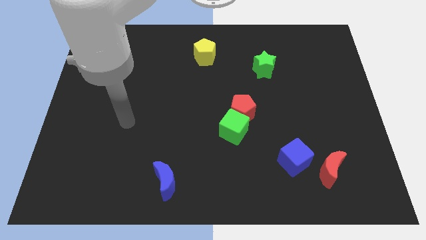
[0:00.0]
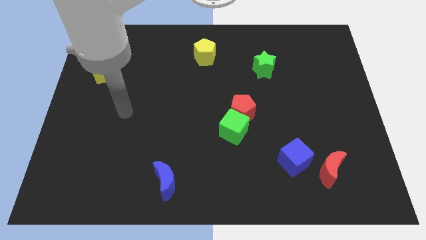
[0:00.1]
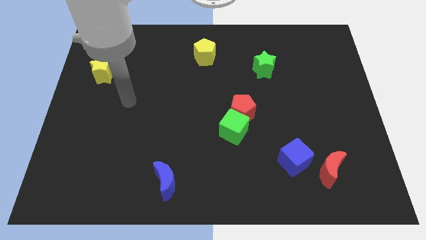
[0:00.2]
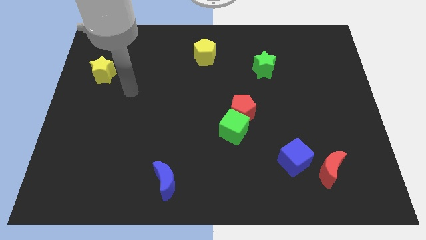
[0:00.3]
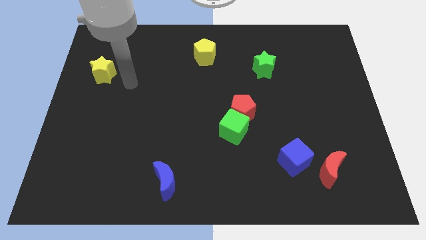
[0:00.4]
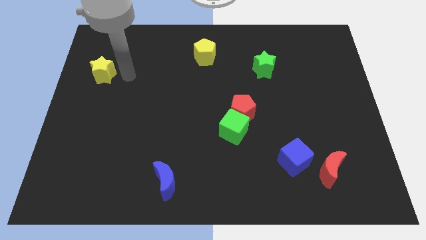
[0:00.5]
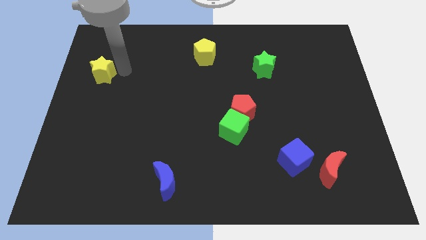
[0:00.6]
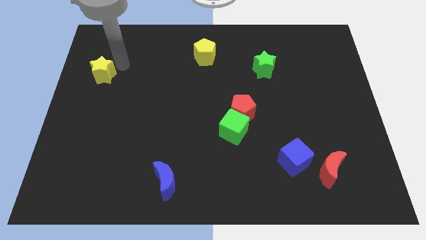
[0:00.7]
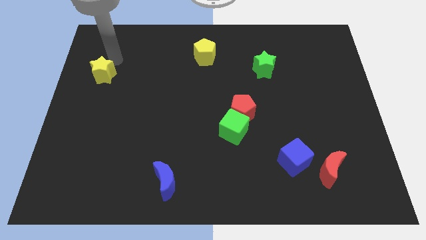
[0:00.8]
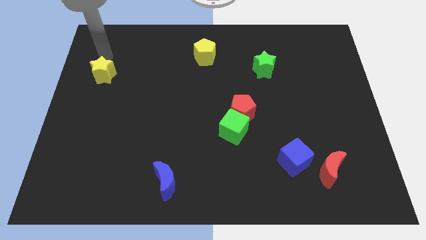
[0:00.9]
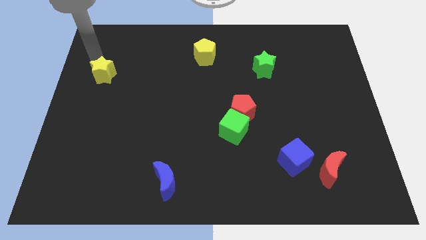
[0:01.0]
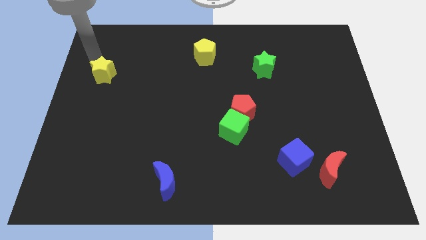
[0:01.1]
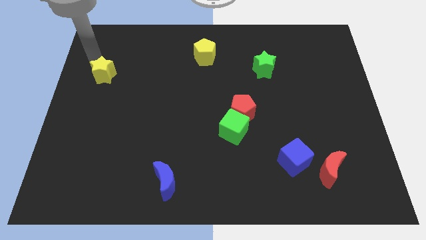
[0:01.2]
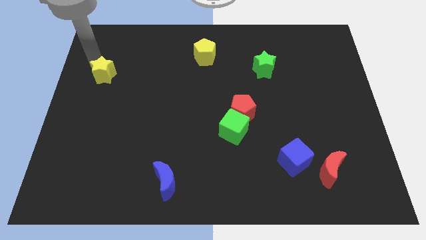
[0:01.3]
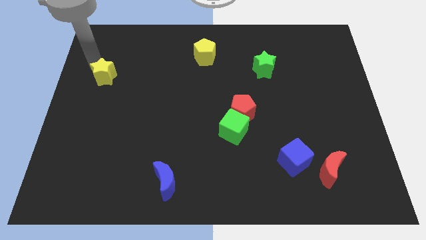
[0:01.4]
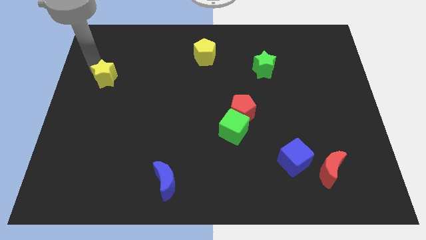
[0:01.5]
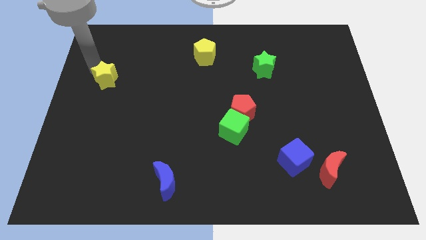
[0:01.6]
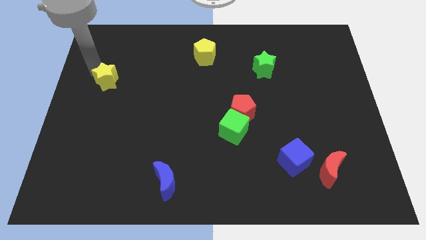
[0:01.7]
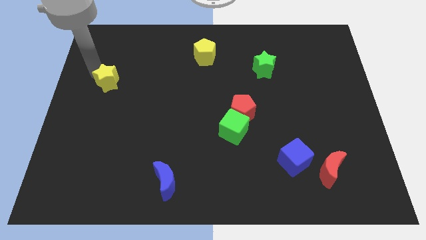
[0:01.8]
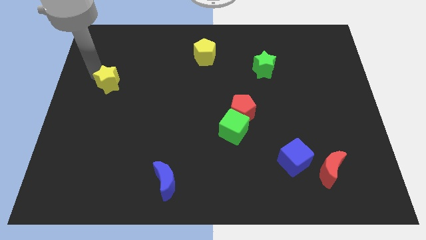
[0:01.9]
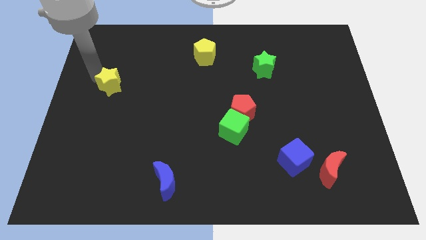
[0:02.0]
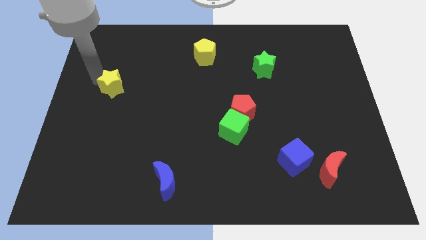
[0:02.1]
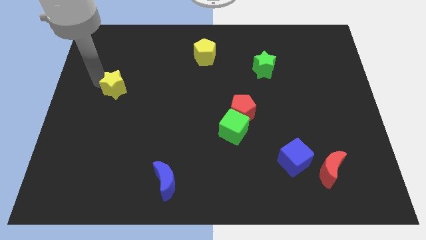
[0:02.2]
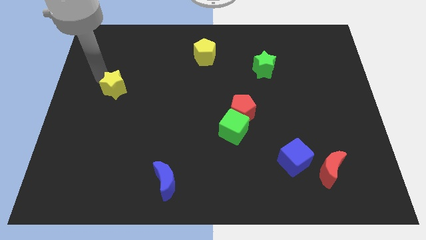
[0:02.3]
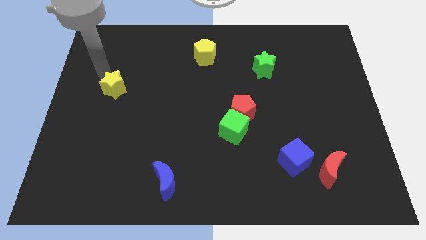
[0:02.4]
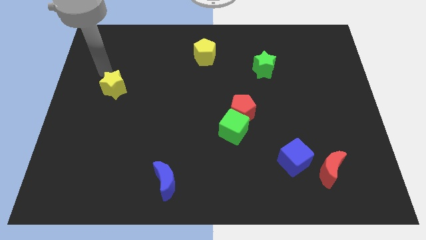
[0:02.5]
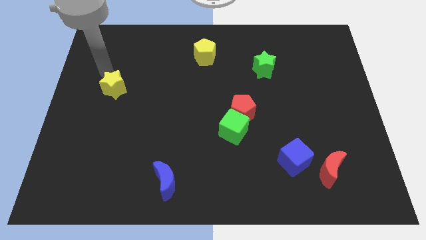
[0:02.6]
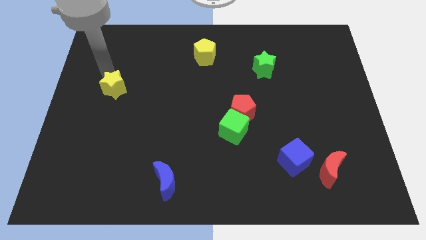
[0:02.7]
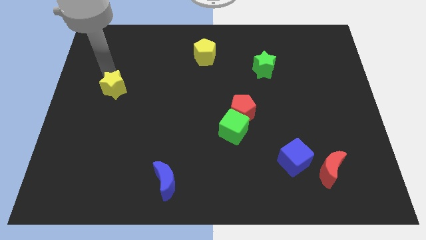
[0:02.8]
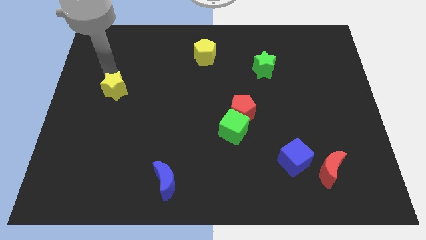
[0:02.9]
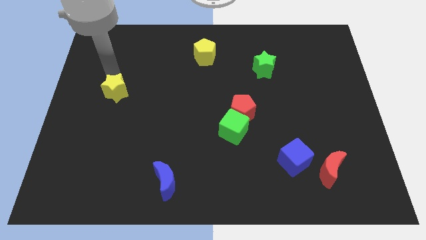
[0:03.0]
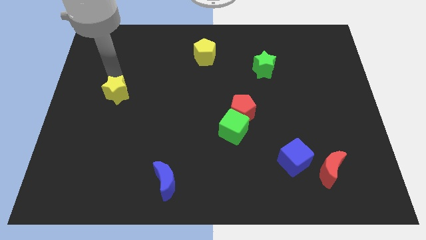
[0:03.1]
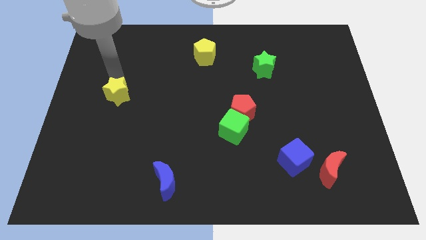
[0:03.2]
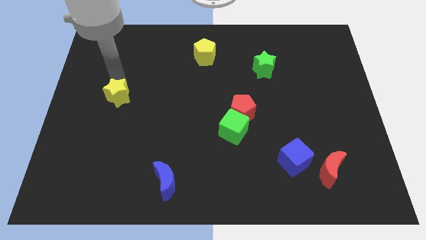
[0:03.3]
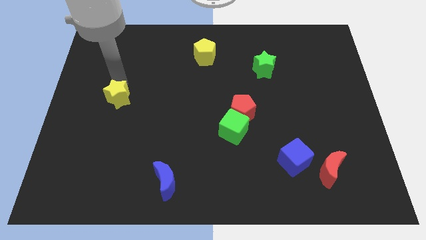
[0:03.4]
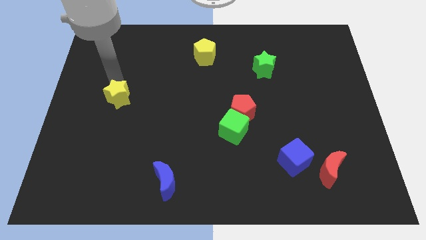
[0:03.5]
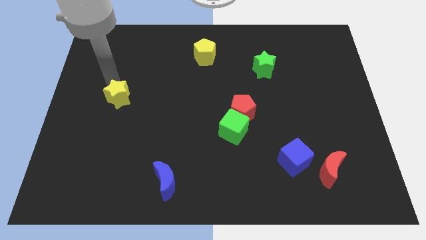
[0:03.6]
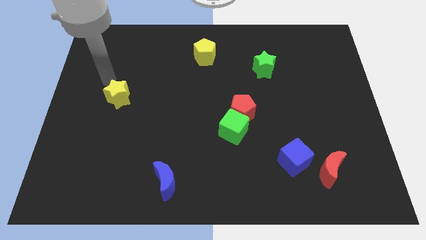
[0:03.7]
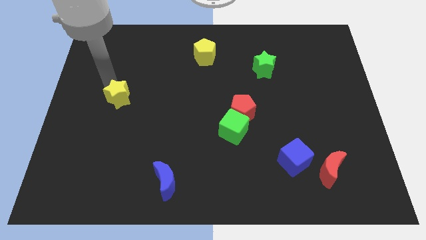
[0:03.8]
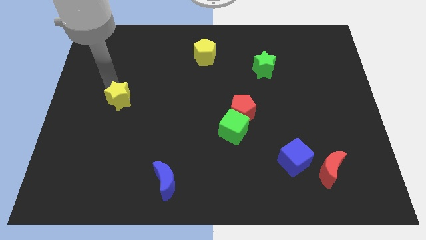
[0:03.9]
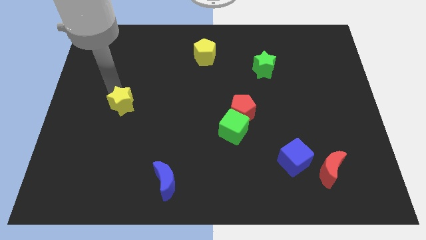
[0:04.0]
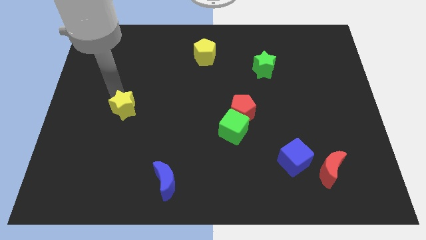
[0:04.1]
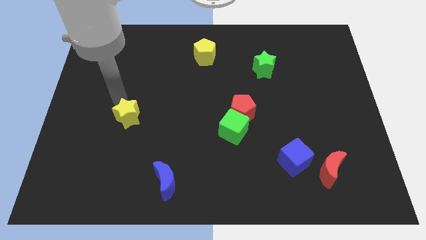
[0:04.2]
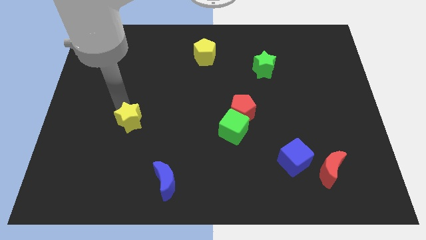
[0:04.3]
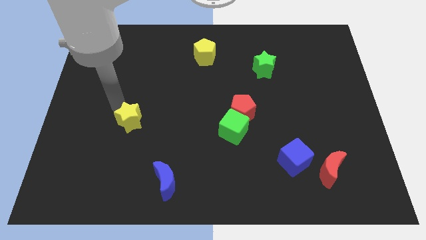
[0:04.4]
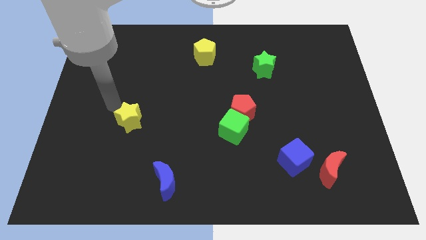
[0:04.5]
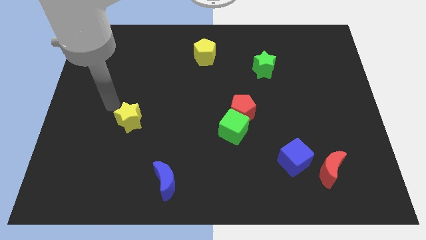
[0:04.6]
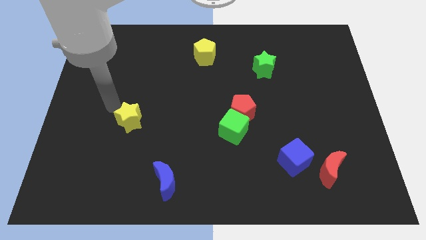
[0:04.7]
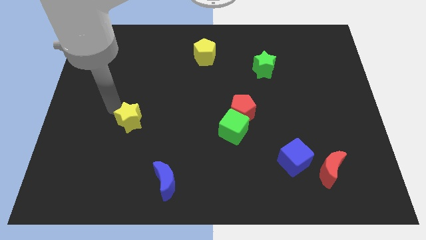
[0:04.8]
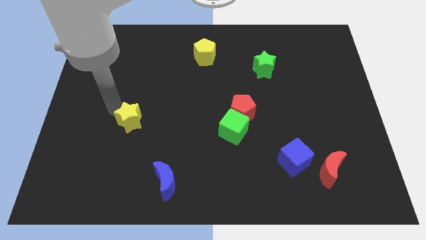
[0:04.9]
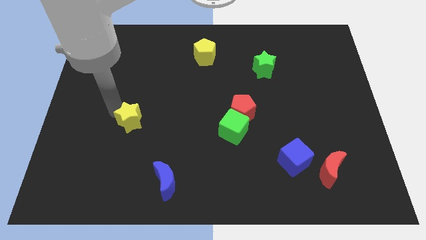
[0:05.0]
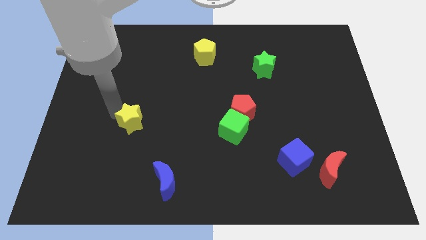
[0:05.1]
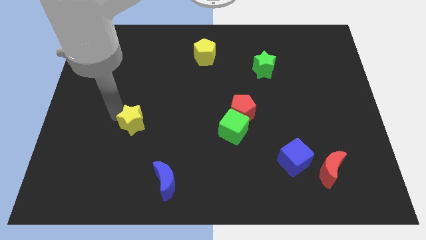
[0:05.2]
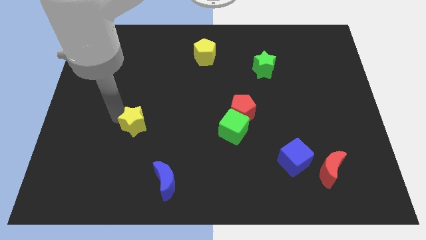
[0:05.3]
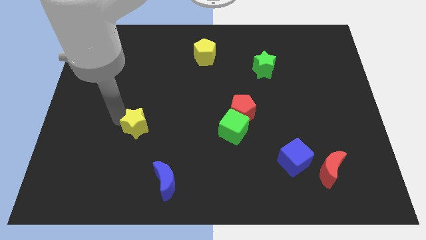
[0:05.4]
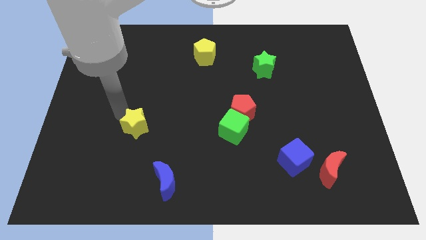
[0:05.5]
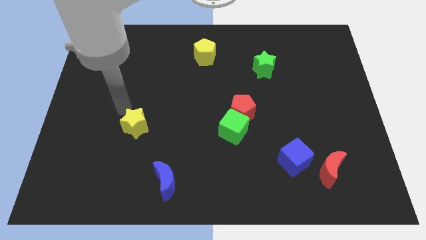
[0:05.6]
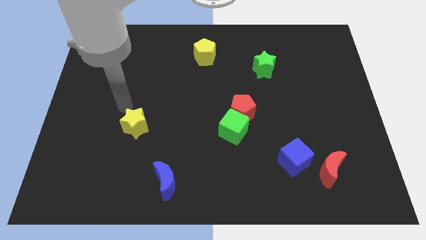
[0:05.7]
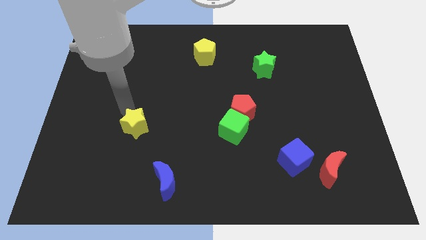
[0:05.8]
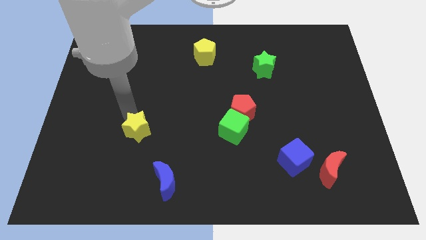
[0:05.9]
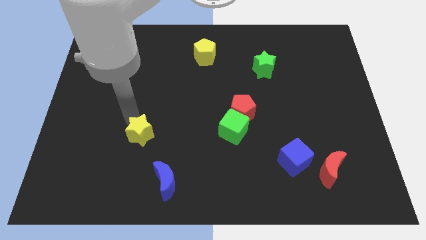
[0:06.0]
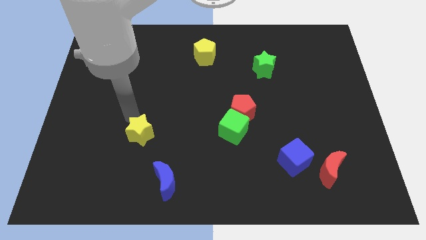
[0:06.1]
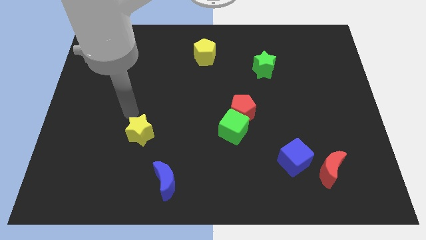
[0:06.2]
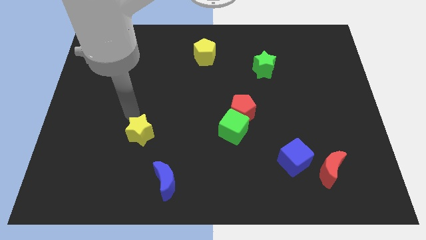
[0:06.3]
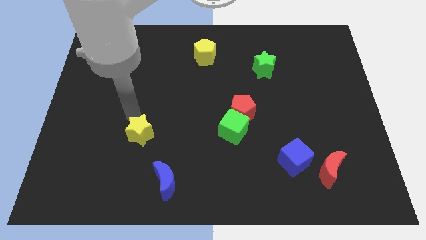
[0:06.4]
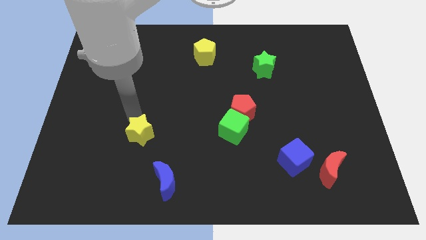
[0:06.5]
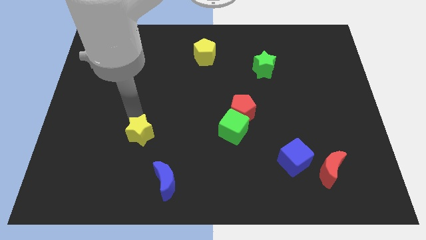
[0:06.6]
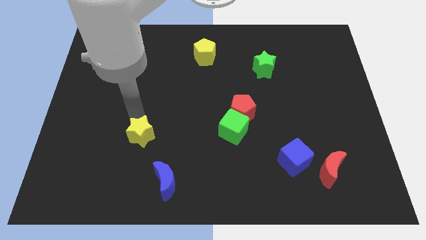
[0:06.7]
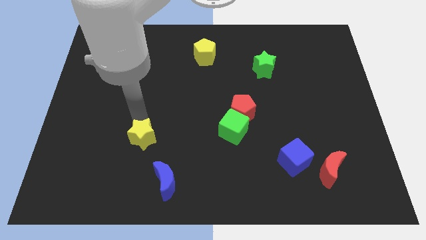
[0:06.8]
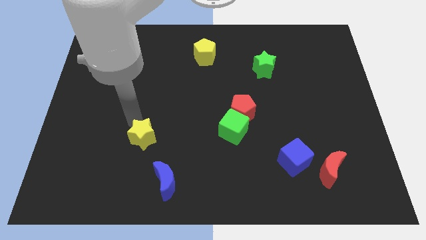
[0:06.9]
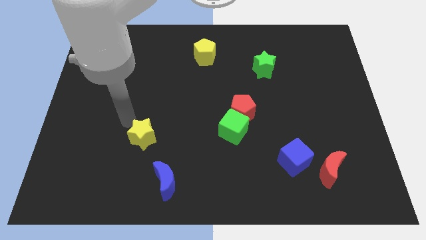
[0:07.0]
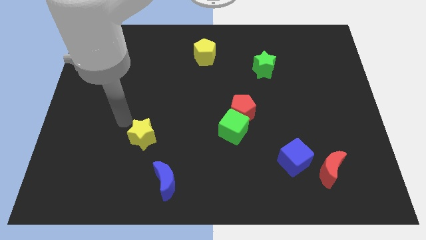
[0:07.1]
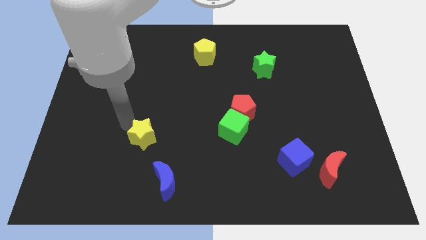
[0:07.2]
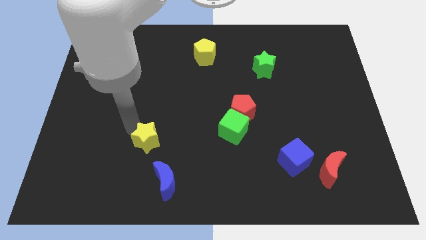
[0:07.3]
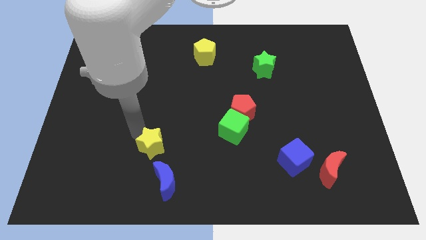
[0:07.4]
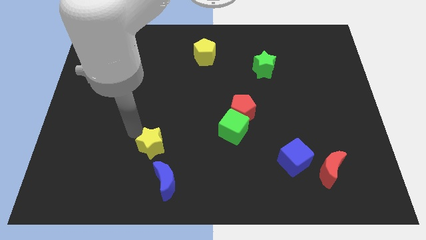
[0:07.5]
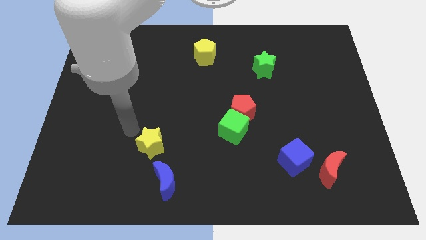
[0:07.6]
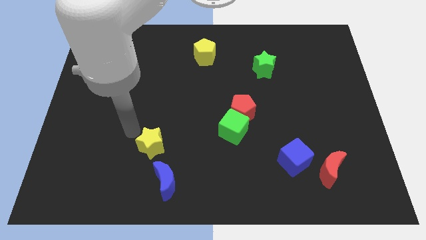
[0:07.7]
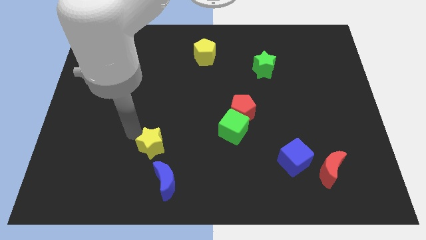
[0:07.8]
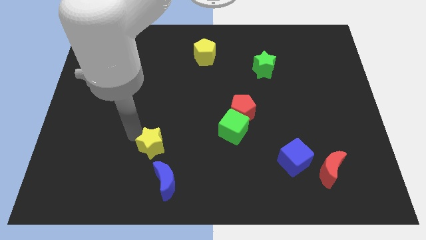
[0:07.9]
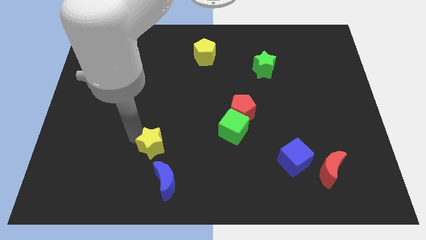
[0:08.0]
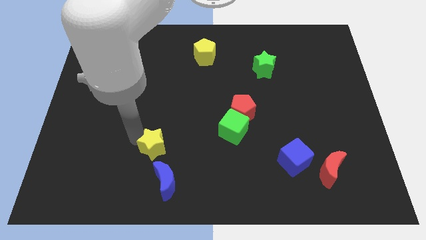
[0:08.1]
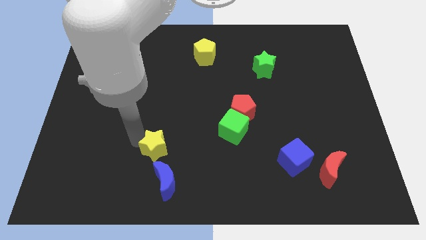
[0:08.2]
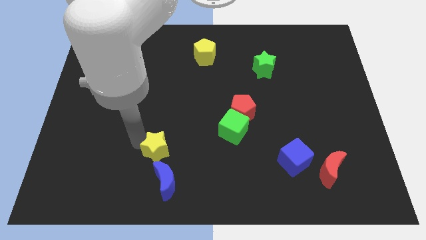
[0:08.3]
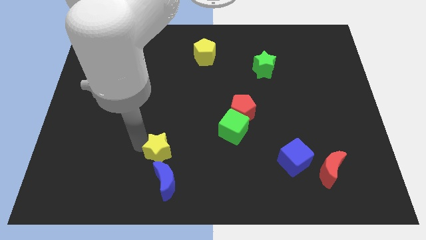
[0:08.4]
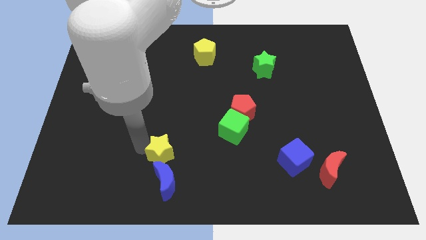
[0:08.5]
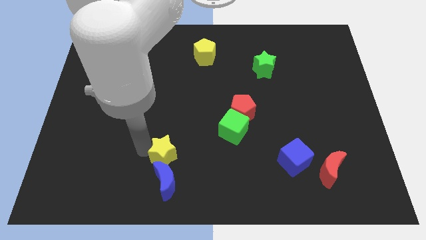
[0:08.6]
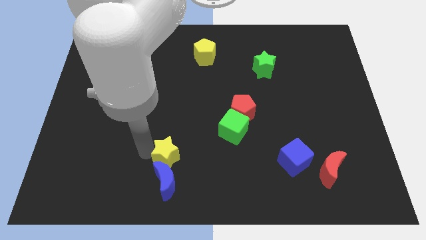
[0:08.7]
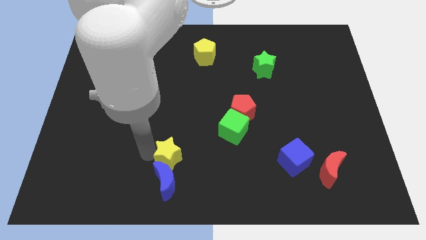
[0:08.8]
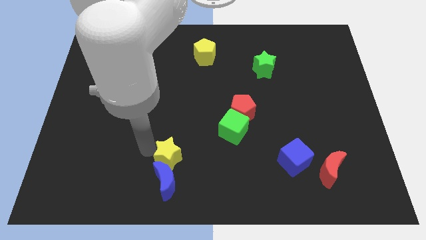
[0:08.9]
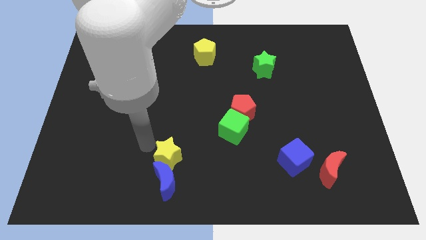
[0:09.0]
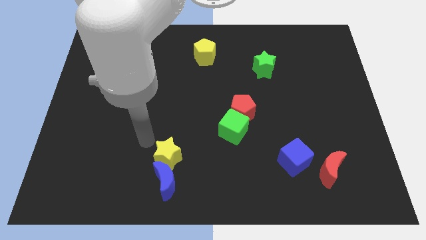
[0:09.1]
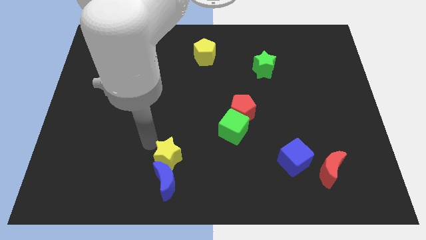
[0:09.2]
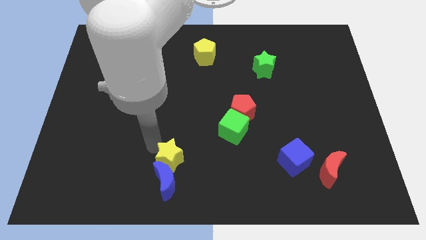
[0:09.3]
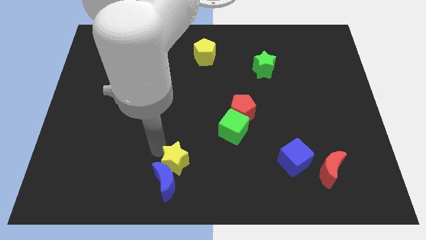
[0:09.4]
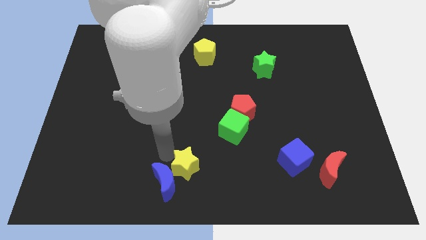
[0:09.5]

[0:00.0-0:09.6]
slide the yellow star to the bottom side
